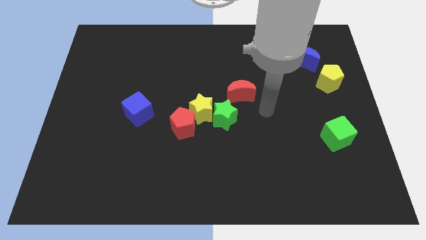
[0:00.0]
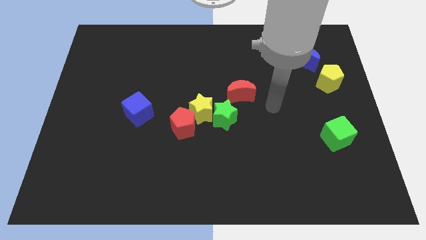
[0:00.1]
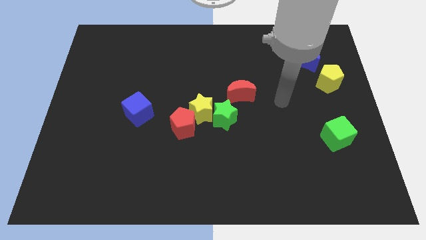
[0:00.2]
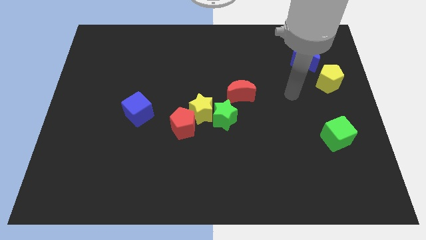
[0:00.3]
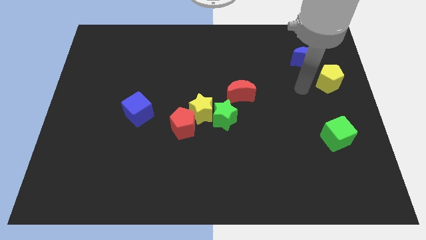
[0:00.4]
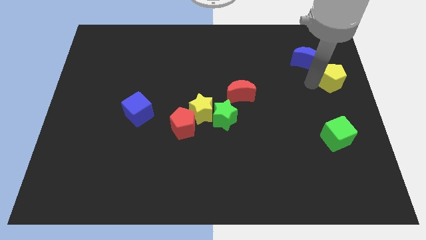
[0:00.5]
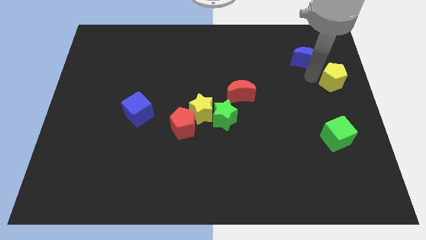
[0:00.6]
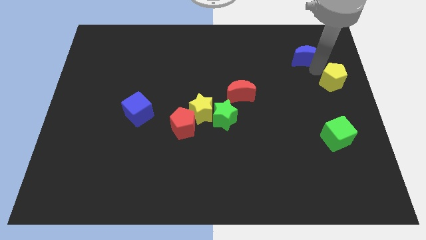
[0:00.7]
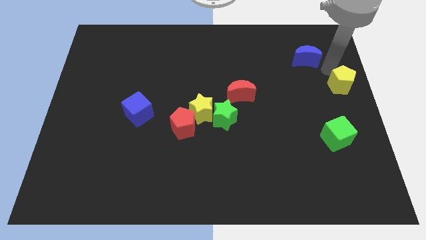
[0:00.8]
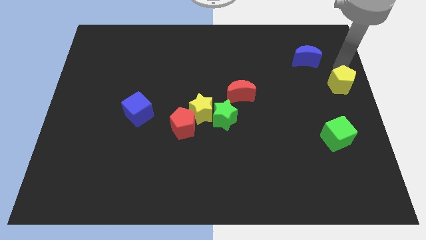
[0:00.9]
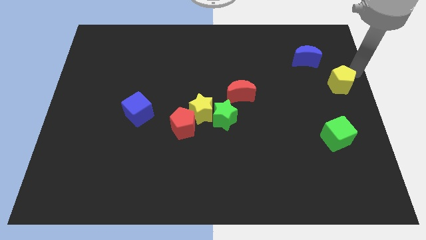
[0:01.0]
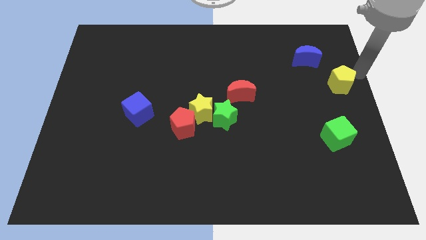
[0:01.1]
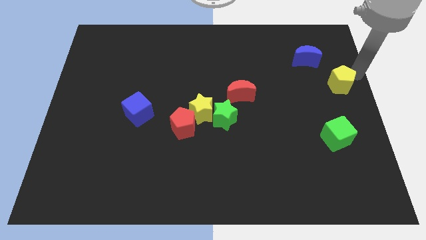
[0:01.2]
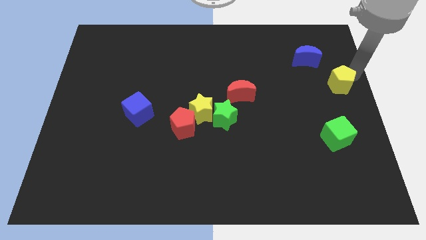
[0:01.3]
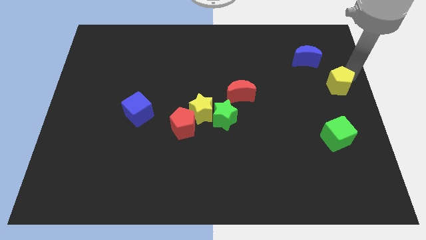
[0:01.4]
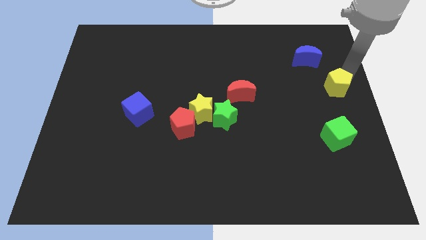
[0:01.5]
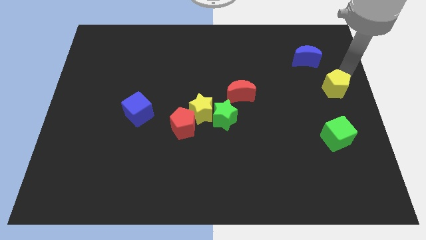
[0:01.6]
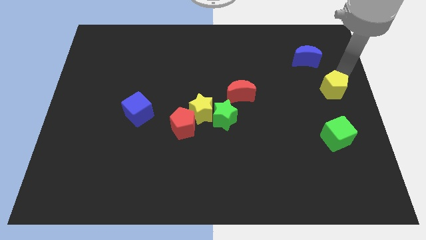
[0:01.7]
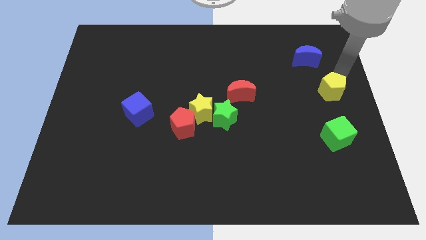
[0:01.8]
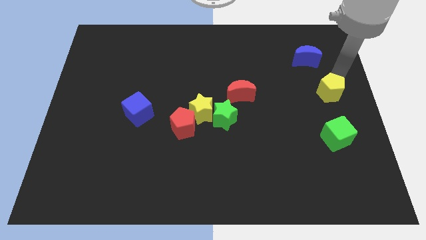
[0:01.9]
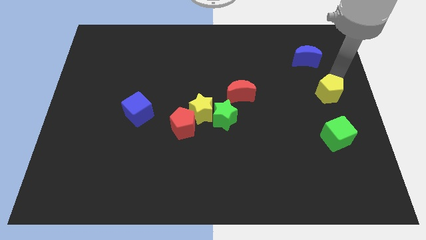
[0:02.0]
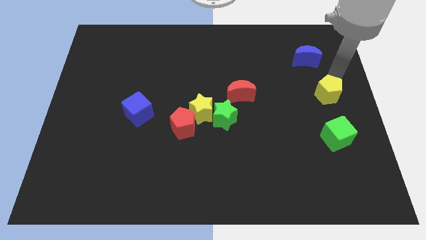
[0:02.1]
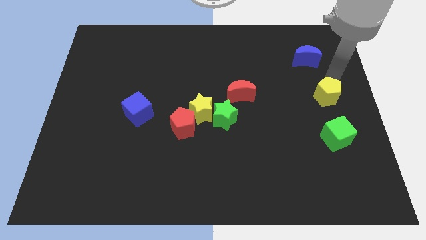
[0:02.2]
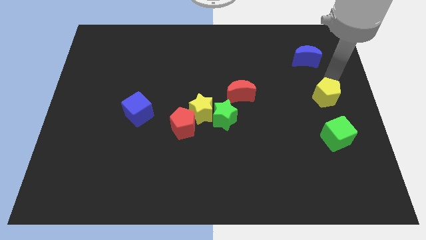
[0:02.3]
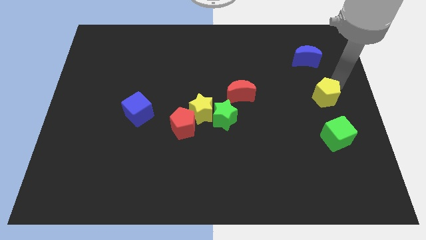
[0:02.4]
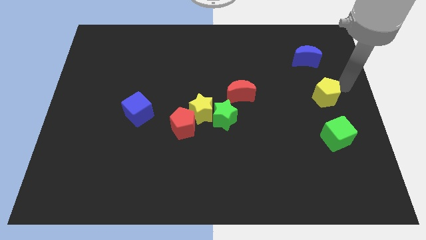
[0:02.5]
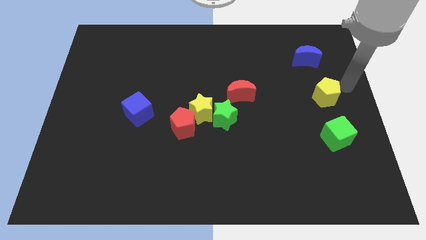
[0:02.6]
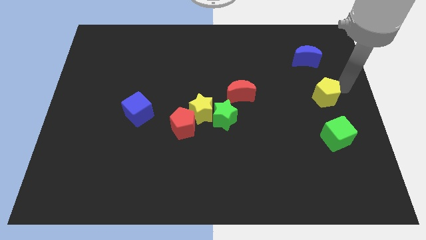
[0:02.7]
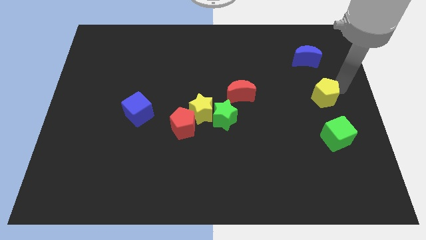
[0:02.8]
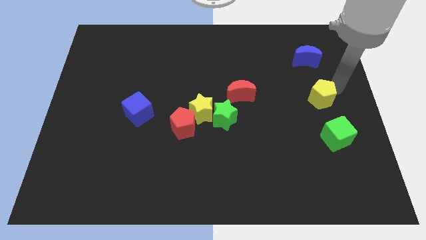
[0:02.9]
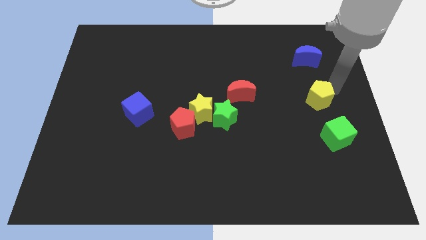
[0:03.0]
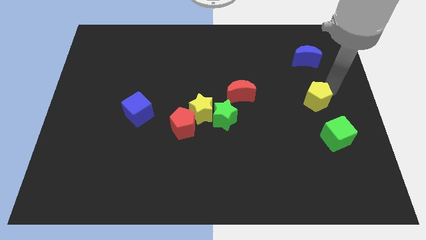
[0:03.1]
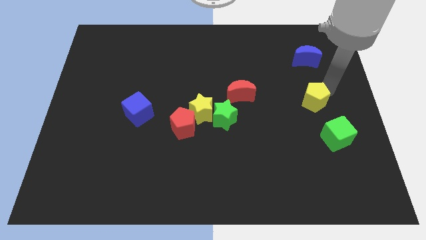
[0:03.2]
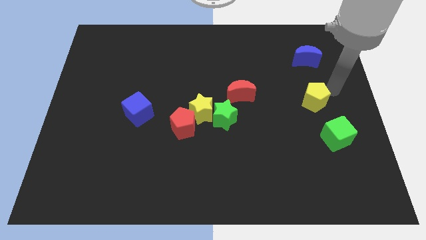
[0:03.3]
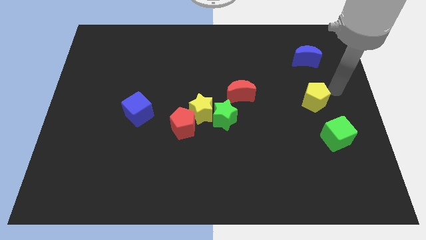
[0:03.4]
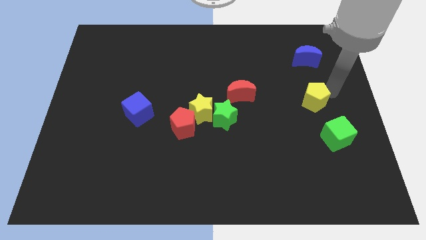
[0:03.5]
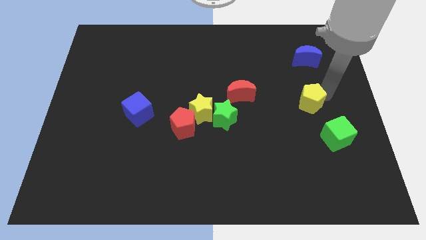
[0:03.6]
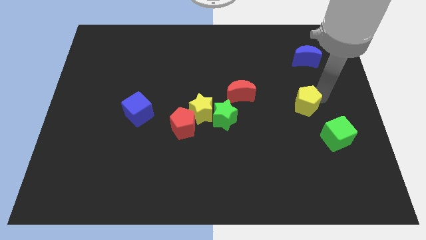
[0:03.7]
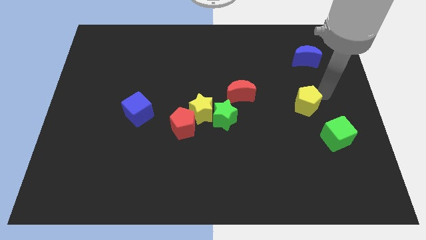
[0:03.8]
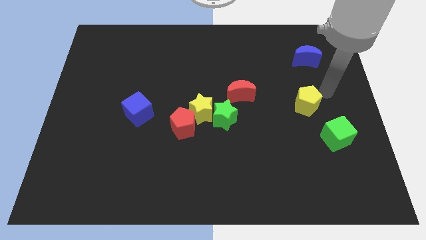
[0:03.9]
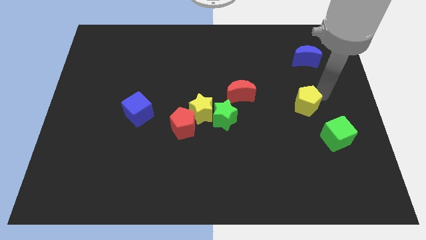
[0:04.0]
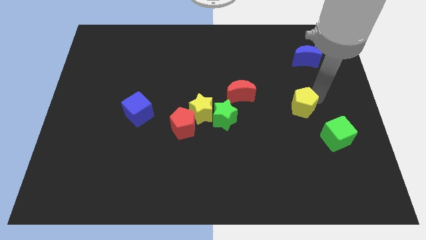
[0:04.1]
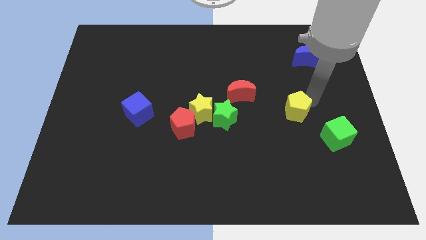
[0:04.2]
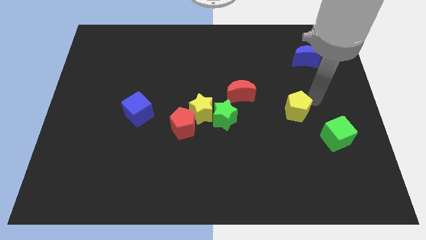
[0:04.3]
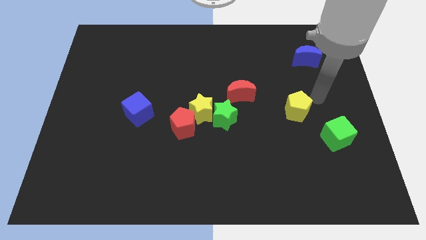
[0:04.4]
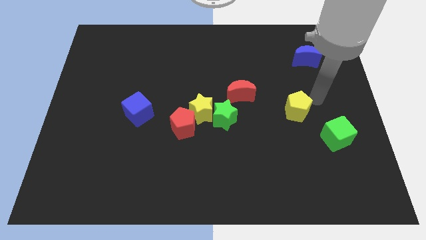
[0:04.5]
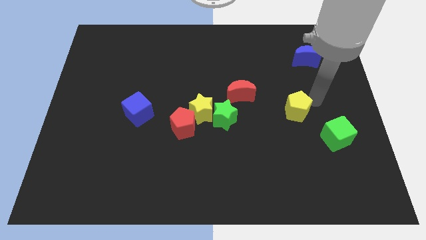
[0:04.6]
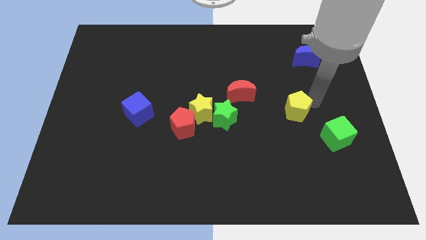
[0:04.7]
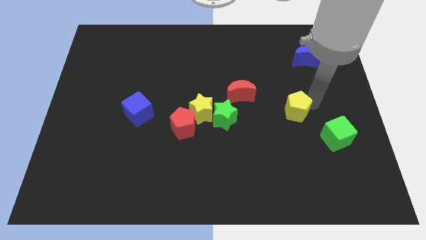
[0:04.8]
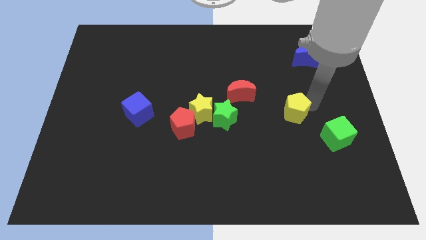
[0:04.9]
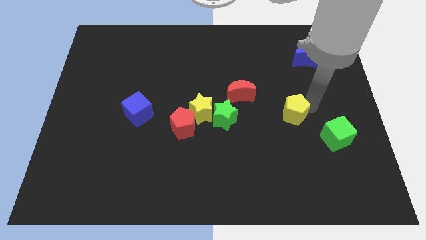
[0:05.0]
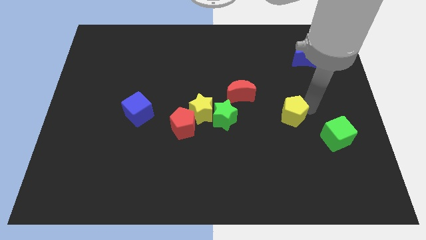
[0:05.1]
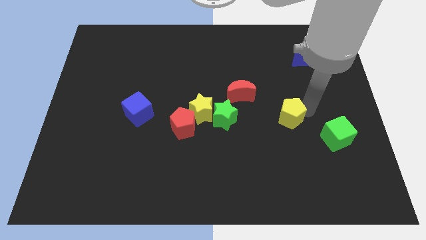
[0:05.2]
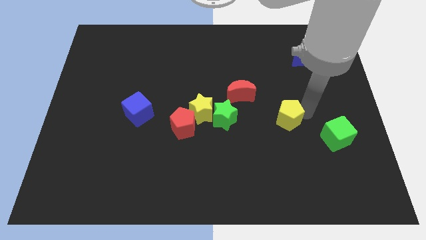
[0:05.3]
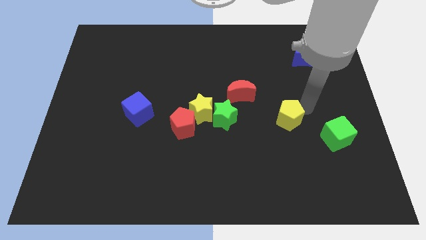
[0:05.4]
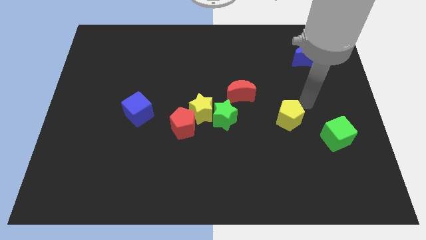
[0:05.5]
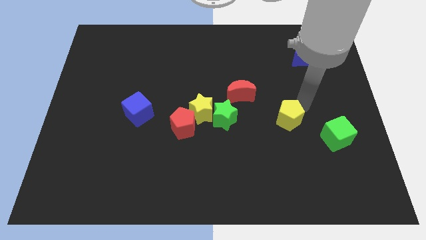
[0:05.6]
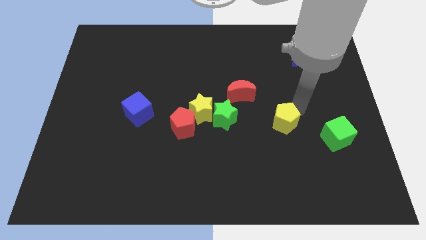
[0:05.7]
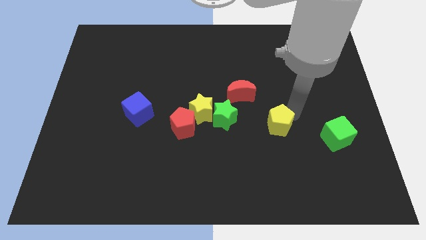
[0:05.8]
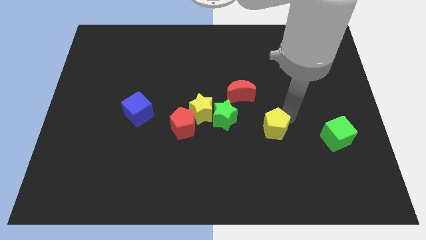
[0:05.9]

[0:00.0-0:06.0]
push the yellow pentagon down and left

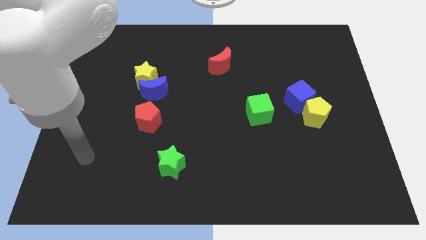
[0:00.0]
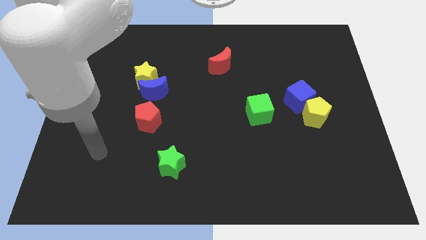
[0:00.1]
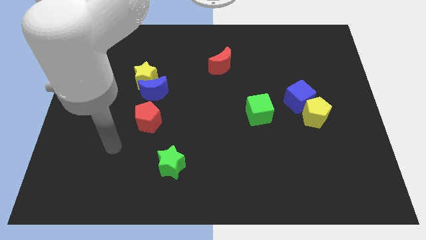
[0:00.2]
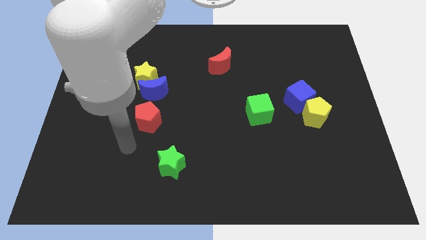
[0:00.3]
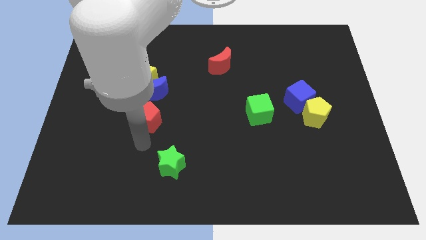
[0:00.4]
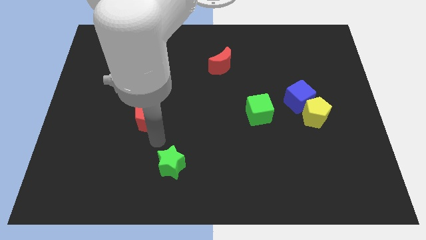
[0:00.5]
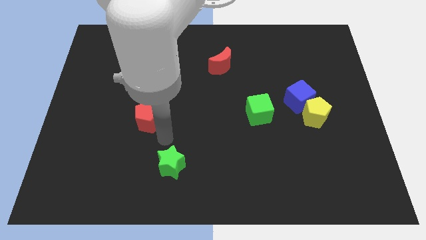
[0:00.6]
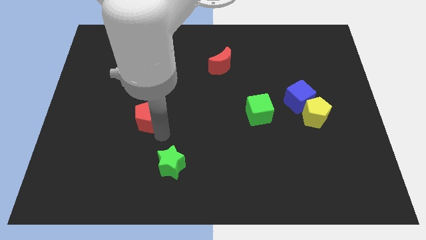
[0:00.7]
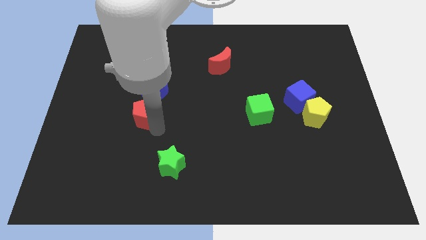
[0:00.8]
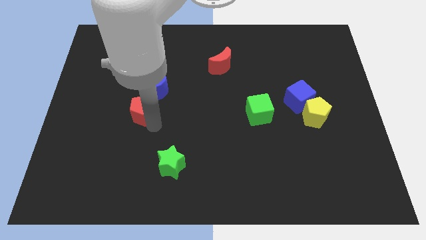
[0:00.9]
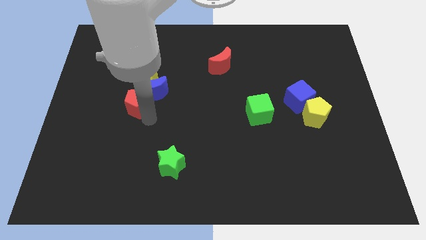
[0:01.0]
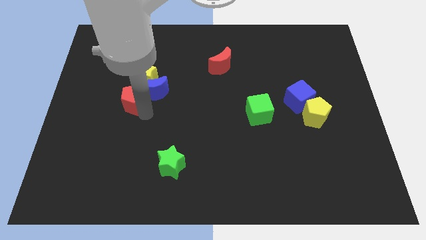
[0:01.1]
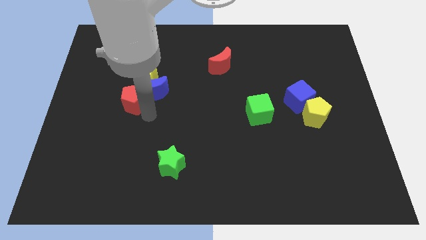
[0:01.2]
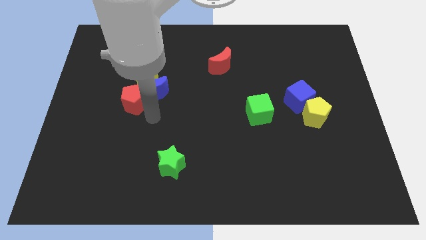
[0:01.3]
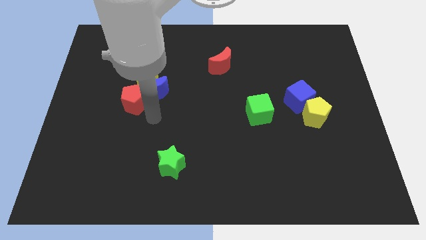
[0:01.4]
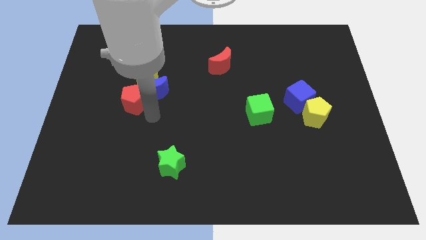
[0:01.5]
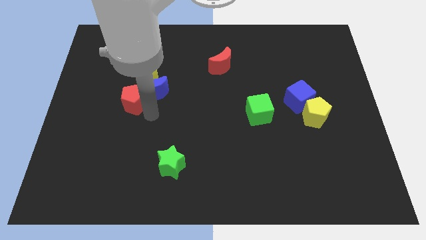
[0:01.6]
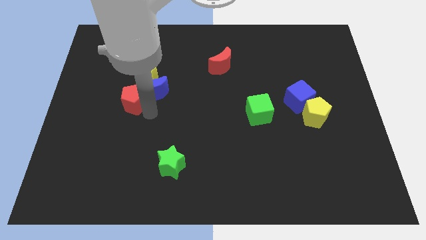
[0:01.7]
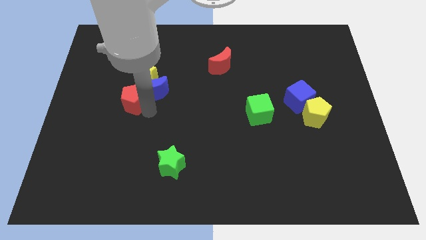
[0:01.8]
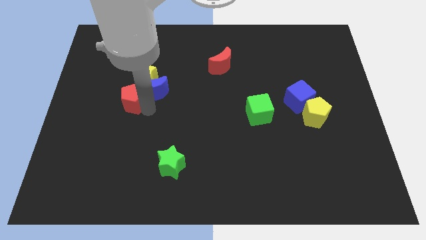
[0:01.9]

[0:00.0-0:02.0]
slightly slide the red pentagon up and then to the left
